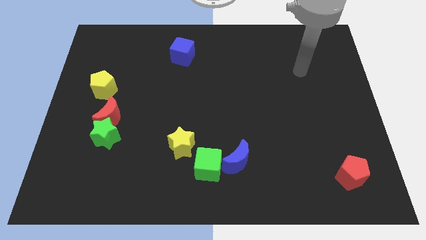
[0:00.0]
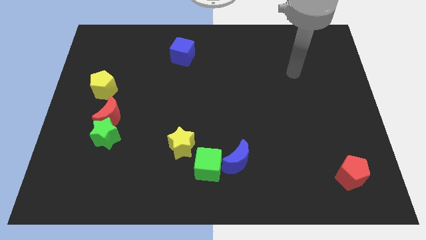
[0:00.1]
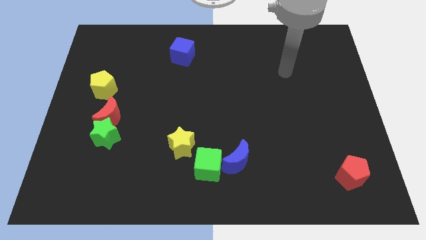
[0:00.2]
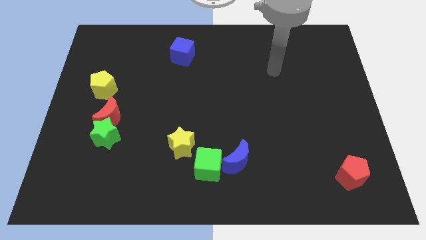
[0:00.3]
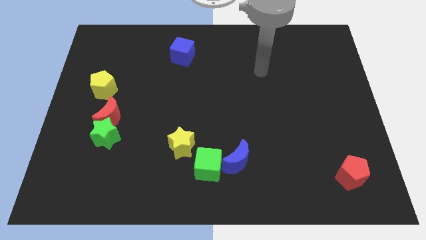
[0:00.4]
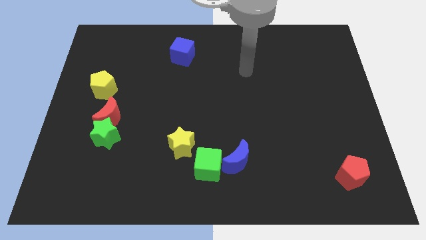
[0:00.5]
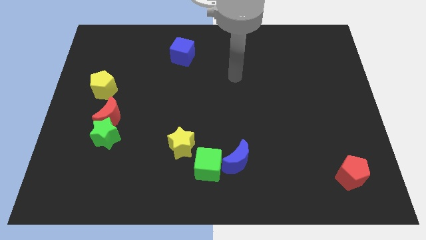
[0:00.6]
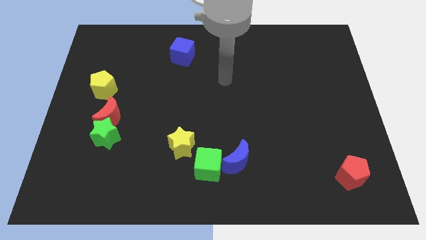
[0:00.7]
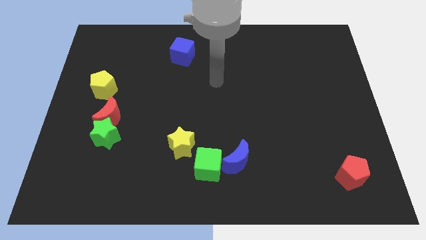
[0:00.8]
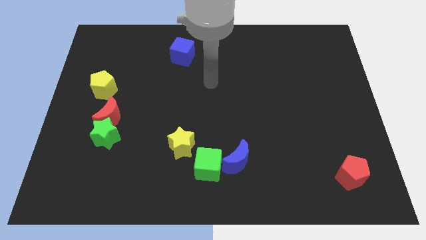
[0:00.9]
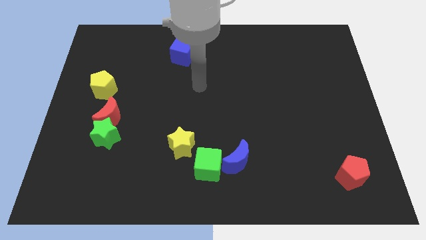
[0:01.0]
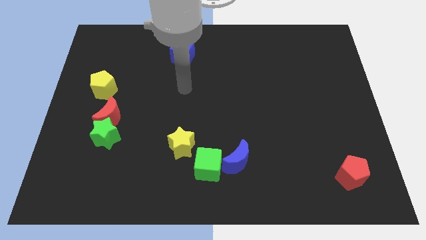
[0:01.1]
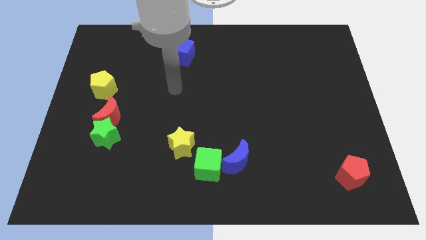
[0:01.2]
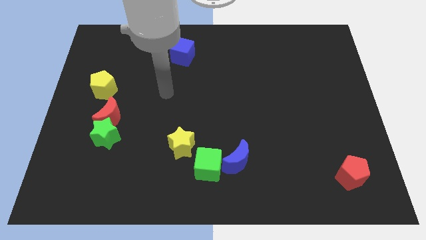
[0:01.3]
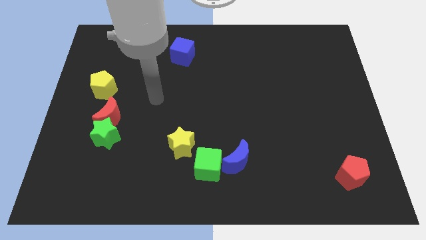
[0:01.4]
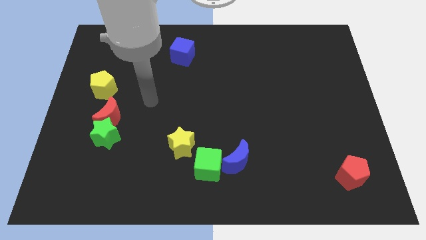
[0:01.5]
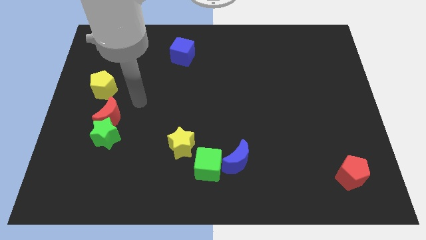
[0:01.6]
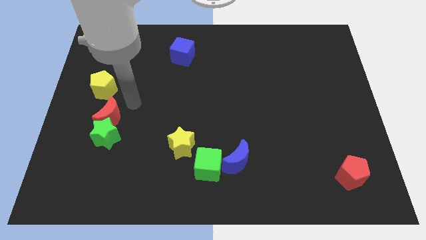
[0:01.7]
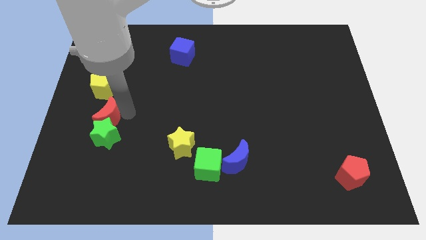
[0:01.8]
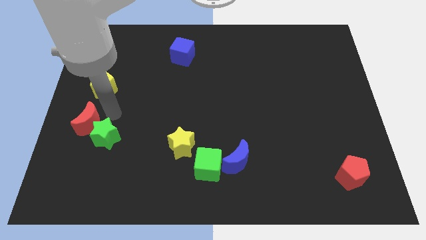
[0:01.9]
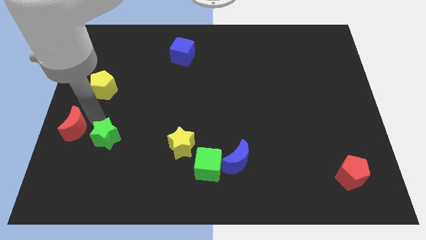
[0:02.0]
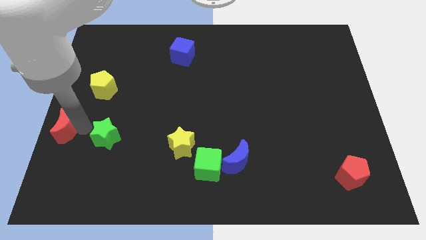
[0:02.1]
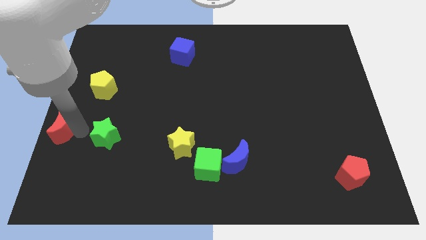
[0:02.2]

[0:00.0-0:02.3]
move the green star away from the red moon

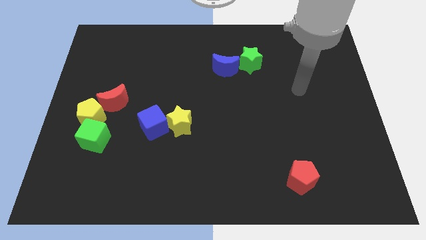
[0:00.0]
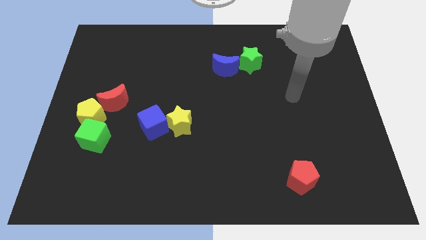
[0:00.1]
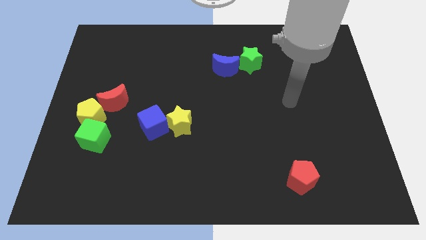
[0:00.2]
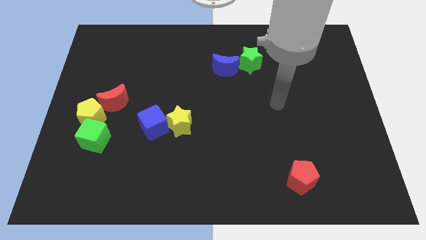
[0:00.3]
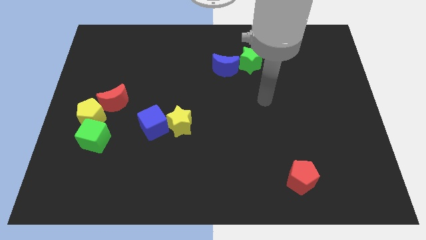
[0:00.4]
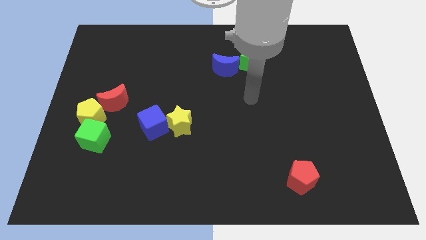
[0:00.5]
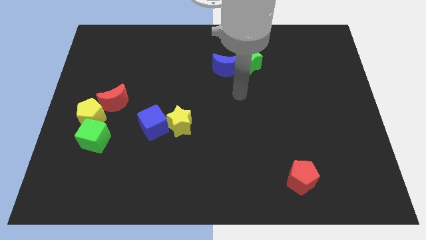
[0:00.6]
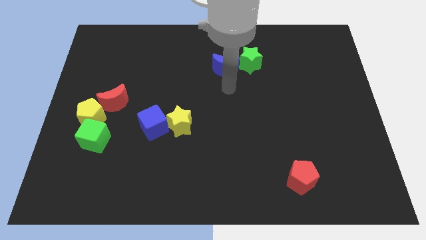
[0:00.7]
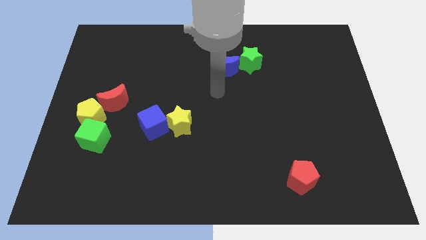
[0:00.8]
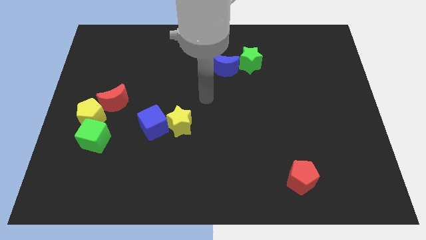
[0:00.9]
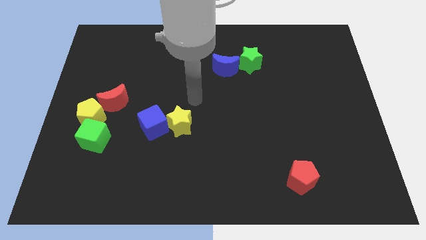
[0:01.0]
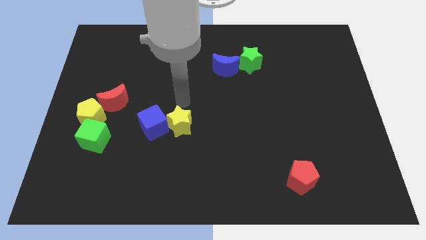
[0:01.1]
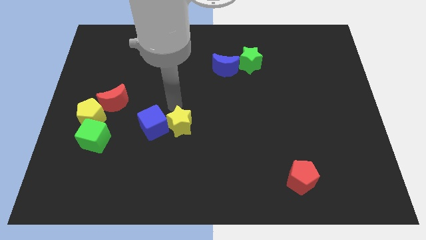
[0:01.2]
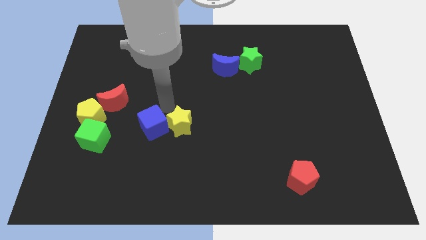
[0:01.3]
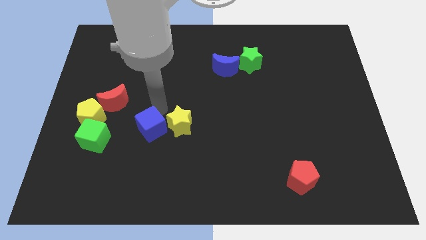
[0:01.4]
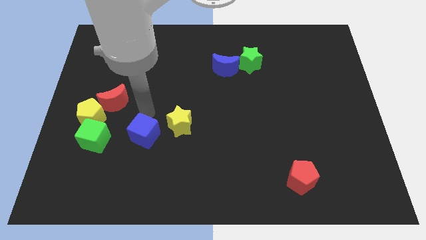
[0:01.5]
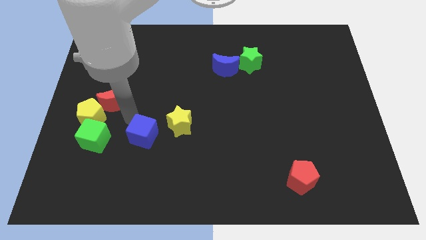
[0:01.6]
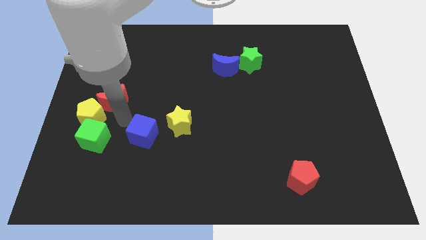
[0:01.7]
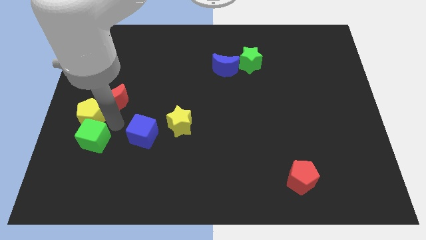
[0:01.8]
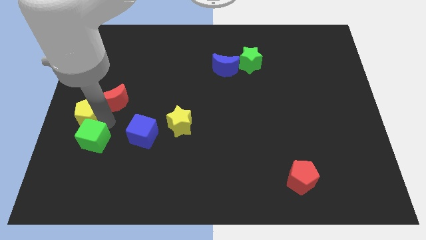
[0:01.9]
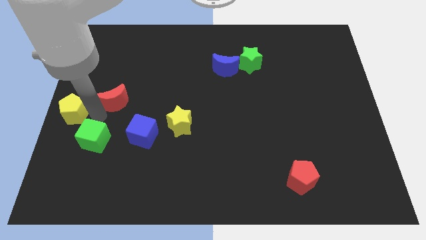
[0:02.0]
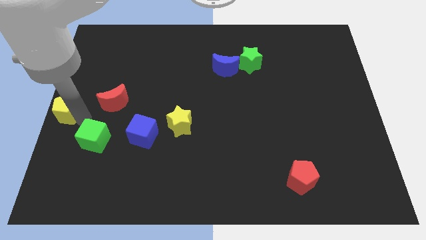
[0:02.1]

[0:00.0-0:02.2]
separate the green cube from the yellow pentagon

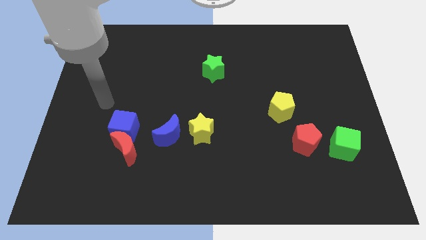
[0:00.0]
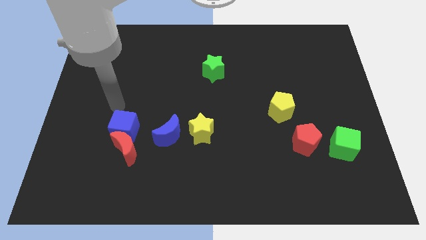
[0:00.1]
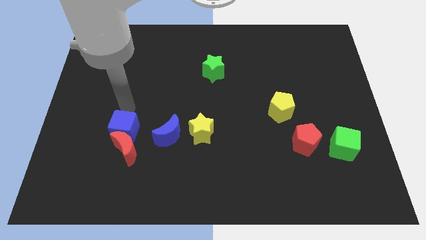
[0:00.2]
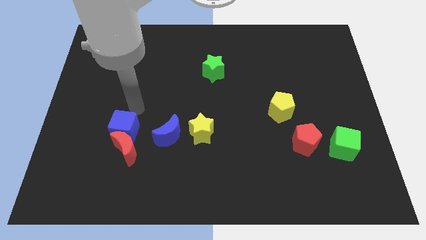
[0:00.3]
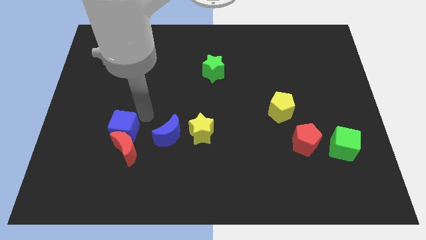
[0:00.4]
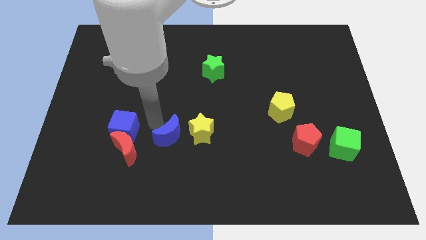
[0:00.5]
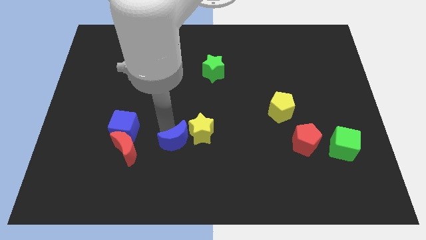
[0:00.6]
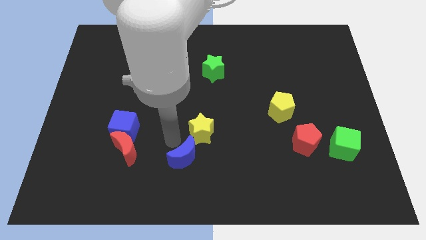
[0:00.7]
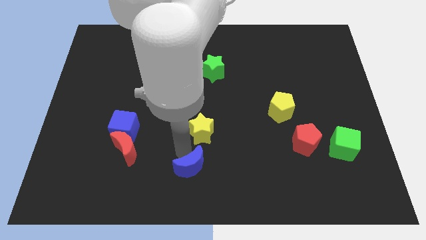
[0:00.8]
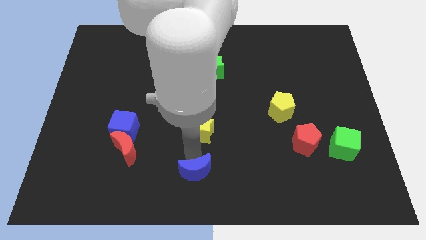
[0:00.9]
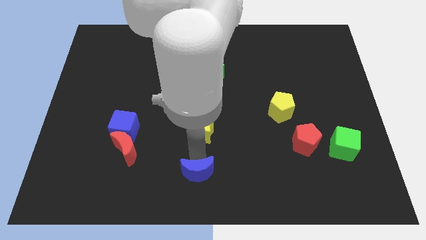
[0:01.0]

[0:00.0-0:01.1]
pull the yellow star apart from the blue moon

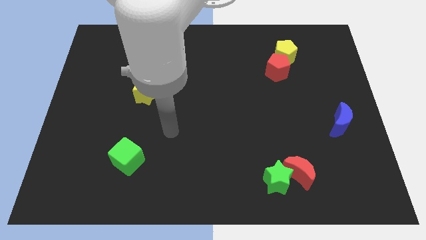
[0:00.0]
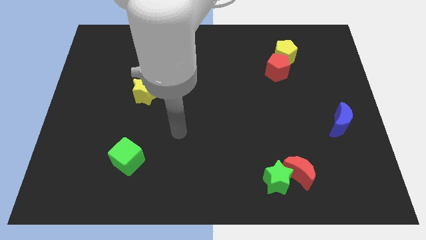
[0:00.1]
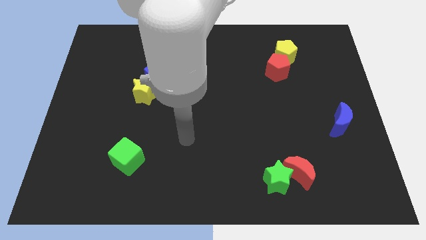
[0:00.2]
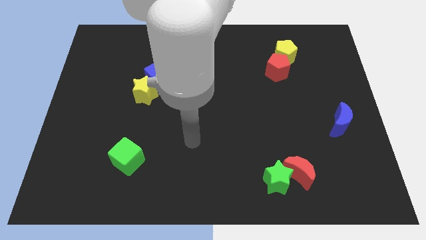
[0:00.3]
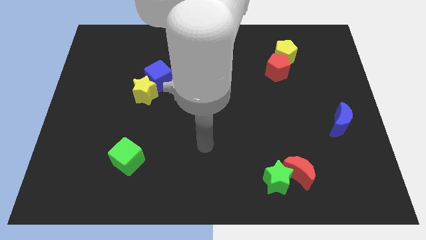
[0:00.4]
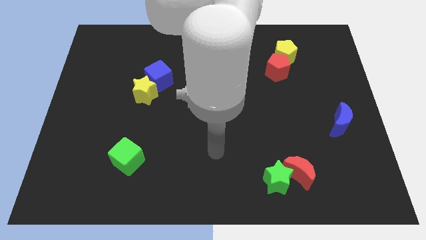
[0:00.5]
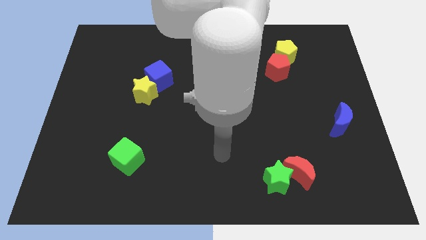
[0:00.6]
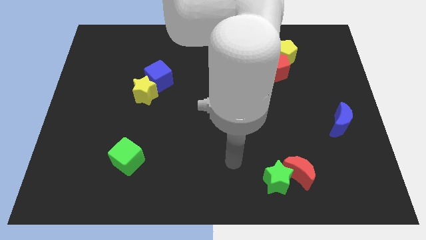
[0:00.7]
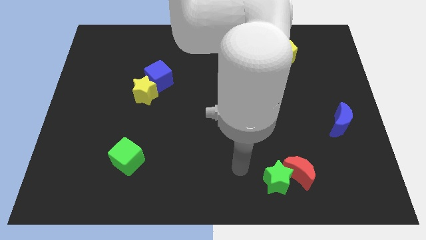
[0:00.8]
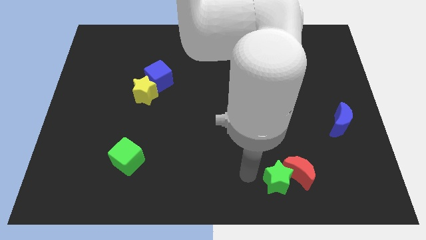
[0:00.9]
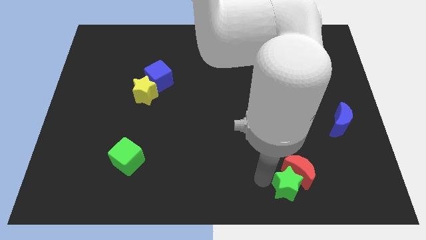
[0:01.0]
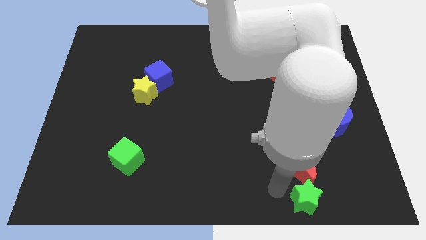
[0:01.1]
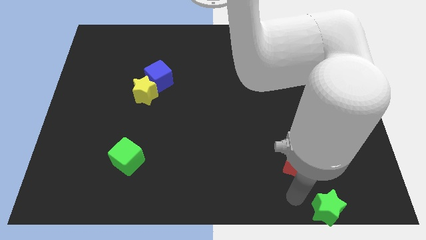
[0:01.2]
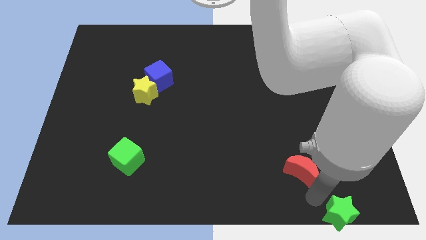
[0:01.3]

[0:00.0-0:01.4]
pull the red moon apart from the green star

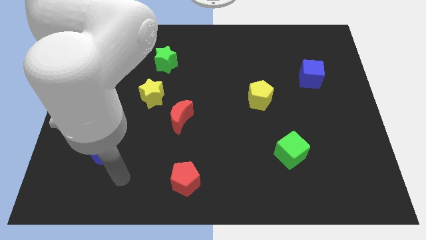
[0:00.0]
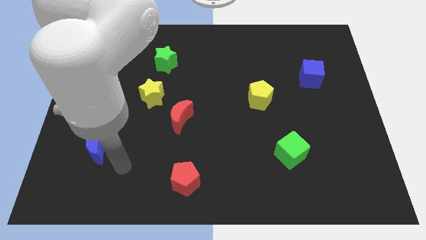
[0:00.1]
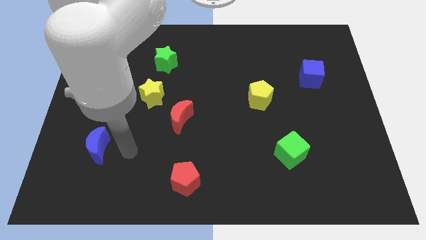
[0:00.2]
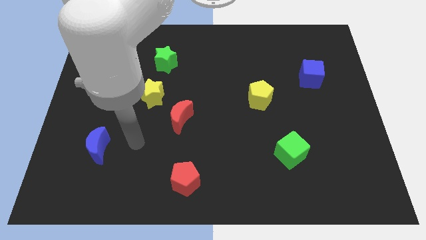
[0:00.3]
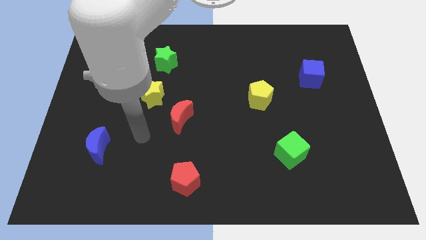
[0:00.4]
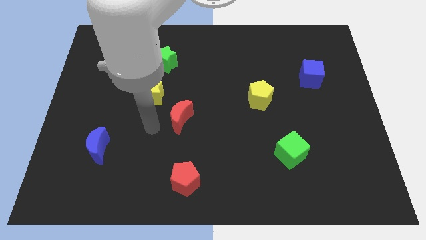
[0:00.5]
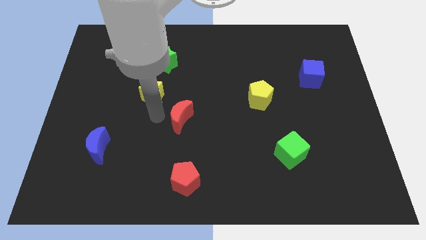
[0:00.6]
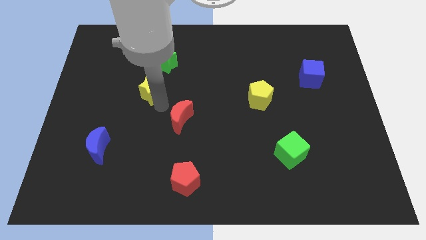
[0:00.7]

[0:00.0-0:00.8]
pull the red moon apart from the yellow star

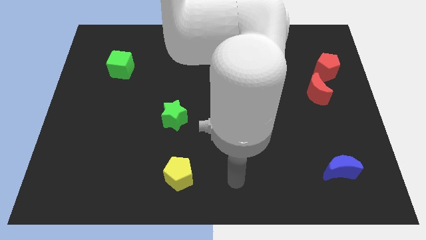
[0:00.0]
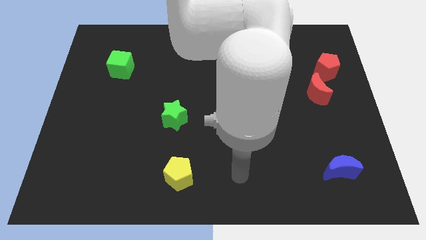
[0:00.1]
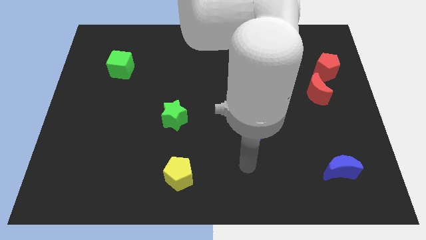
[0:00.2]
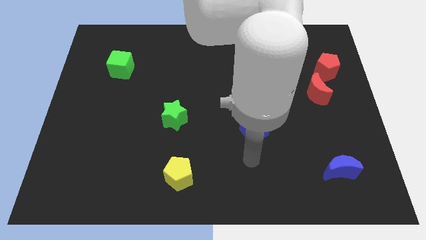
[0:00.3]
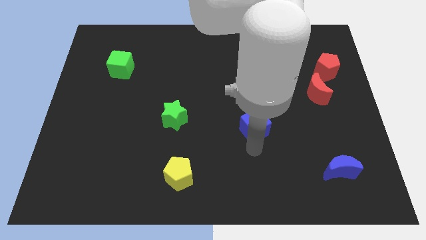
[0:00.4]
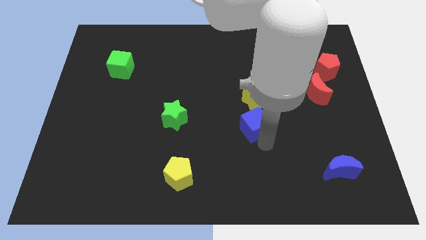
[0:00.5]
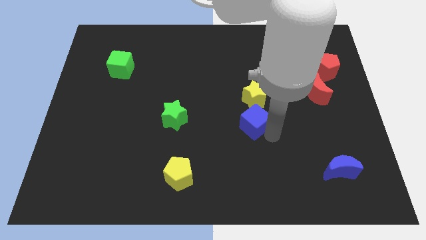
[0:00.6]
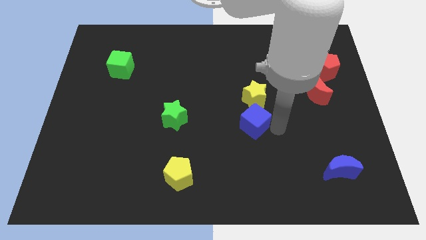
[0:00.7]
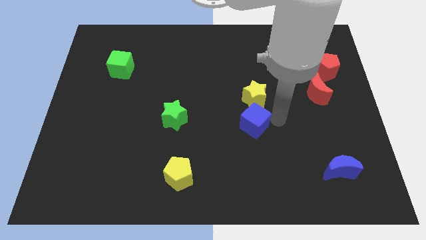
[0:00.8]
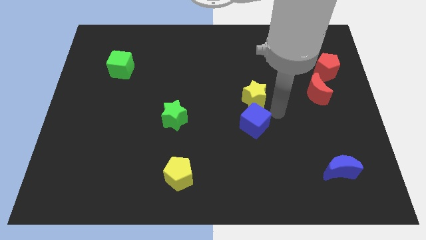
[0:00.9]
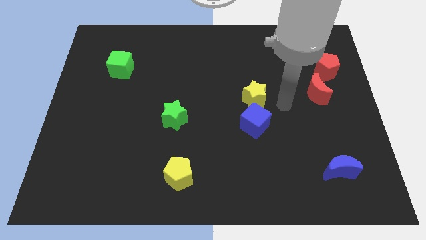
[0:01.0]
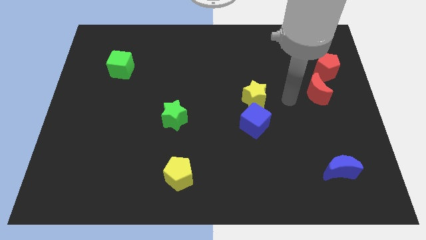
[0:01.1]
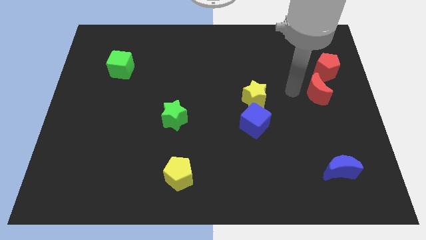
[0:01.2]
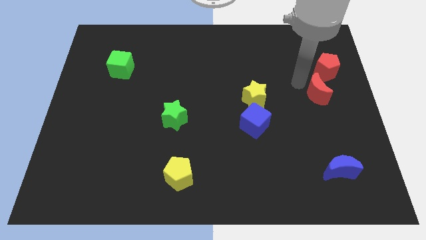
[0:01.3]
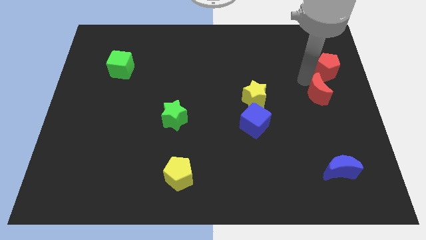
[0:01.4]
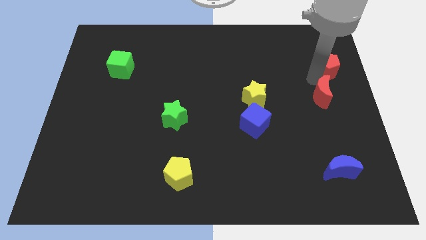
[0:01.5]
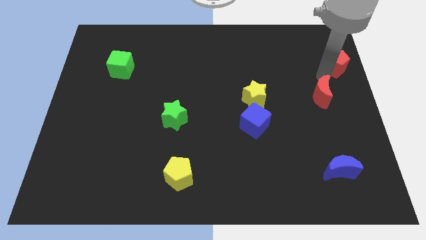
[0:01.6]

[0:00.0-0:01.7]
move the red moon away from the red pentagon

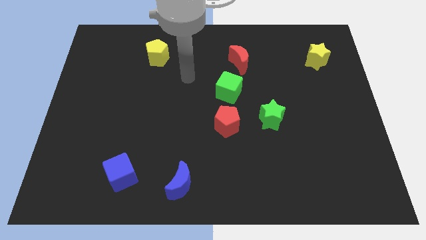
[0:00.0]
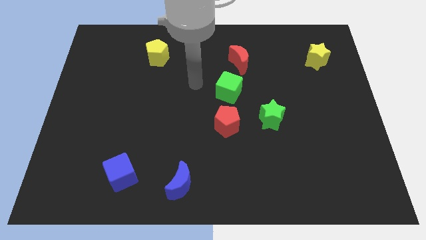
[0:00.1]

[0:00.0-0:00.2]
pull the green star apart from the red pentagon
